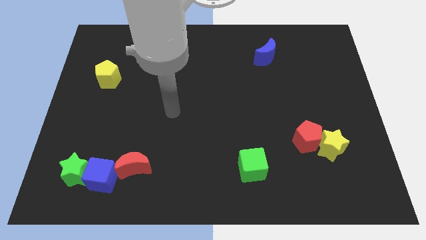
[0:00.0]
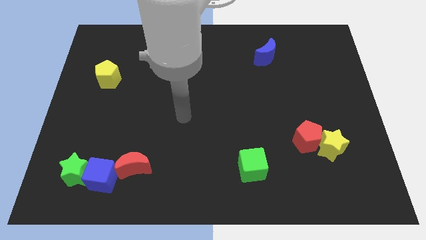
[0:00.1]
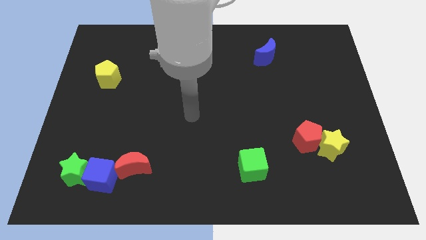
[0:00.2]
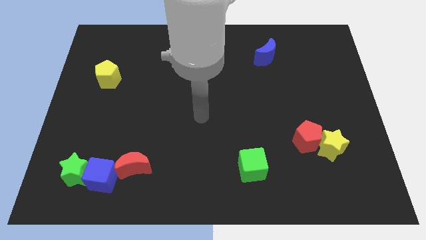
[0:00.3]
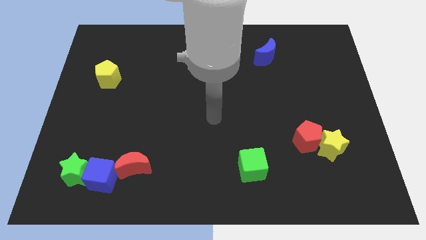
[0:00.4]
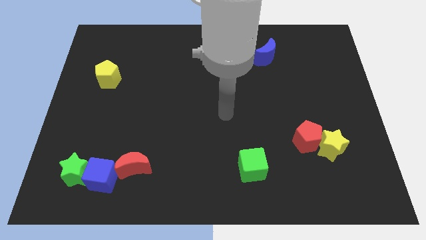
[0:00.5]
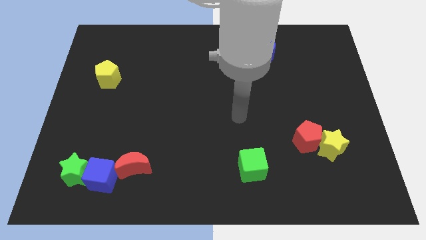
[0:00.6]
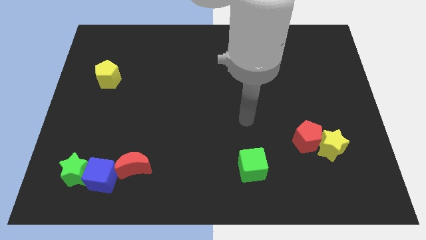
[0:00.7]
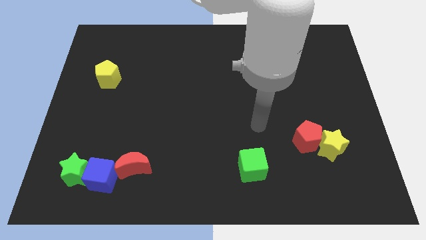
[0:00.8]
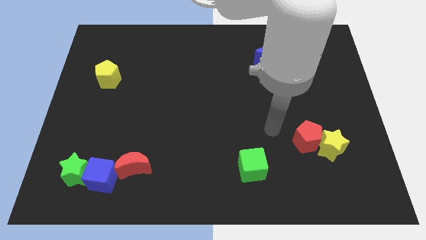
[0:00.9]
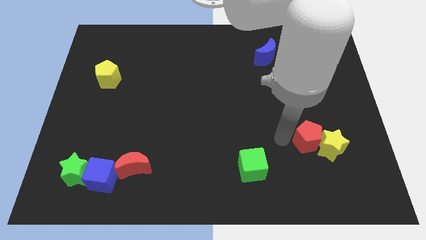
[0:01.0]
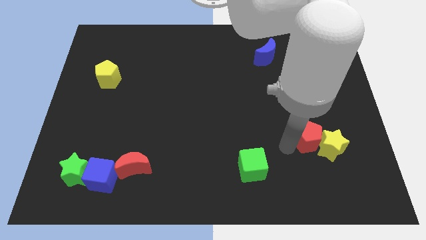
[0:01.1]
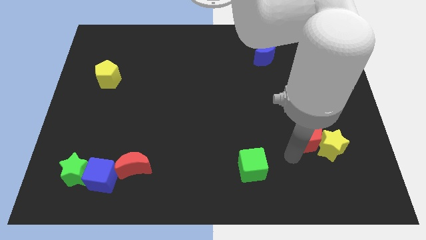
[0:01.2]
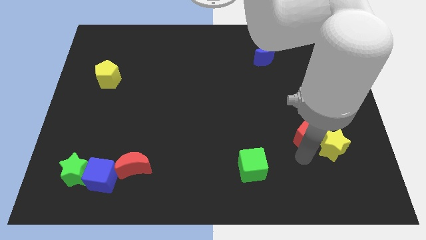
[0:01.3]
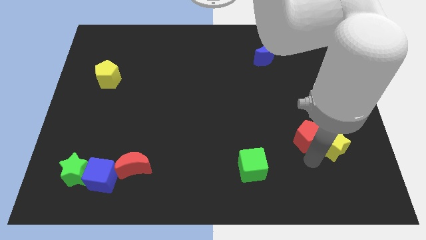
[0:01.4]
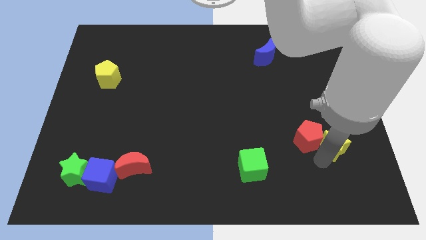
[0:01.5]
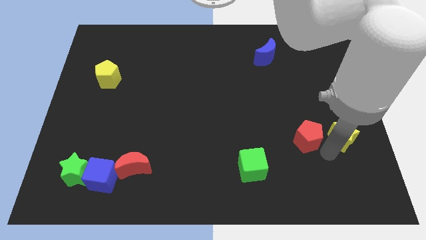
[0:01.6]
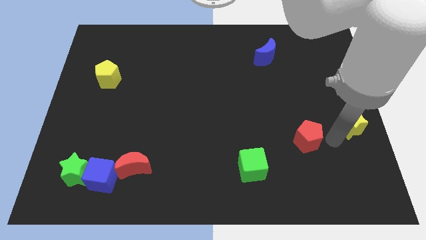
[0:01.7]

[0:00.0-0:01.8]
separate the red pentagon from the yellow star

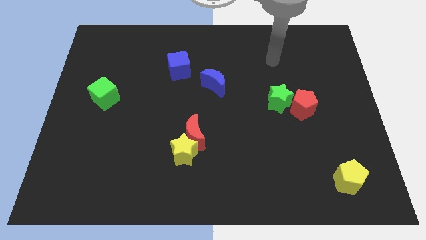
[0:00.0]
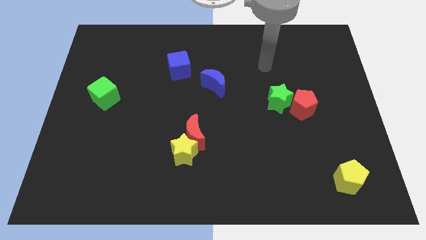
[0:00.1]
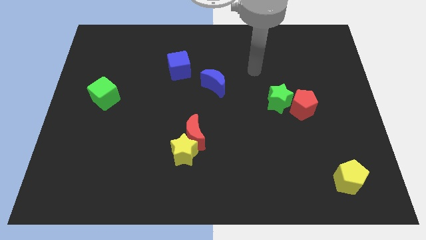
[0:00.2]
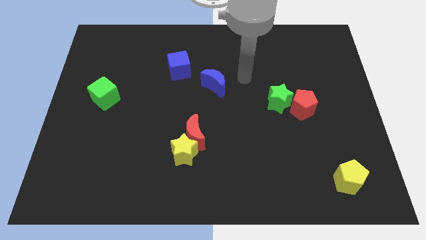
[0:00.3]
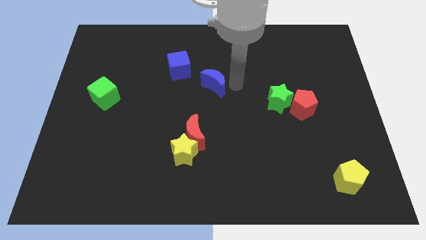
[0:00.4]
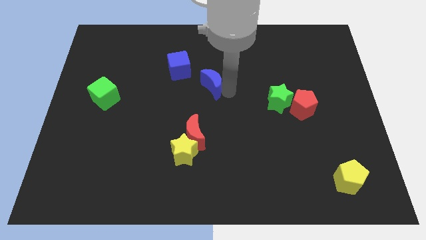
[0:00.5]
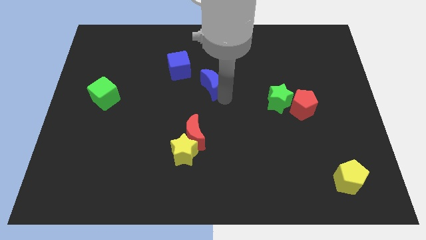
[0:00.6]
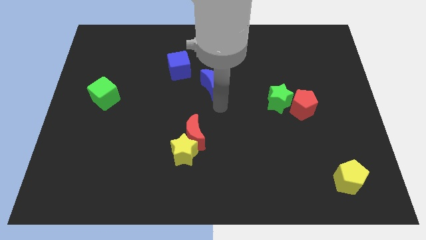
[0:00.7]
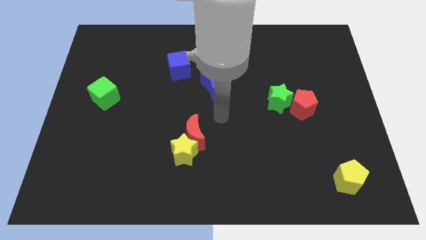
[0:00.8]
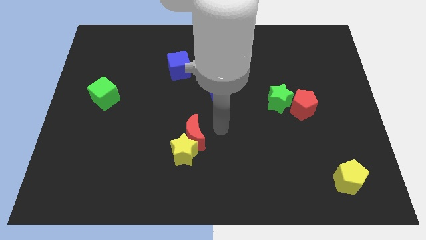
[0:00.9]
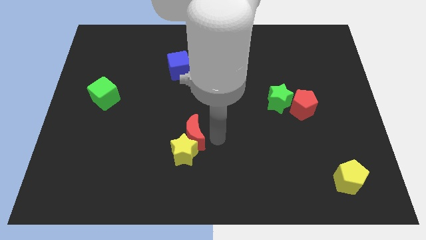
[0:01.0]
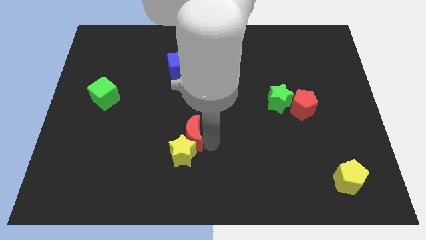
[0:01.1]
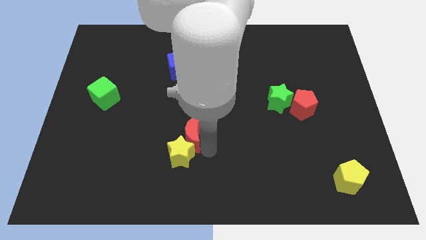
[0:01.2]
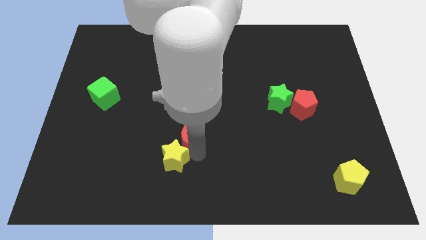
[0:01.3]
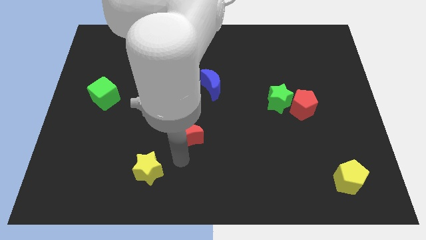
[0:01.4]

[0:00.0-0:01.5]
move the red moon away from the yellow star

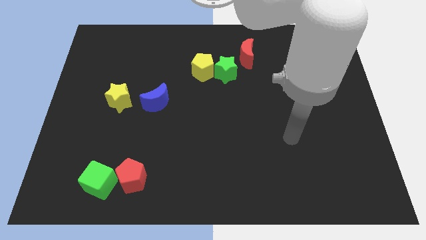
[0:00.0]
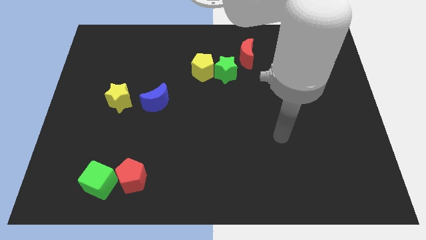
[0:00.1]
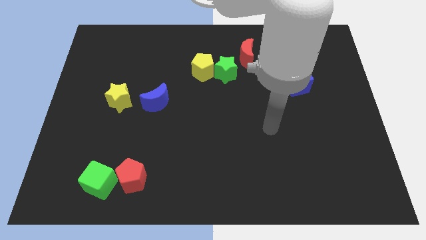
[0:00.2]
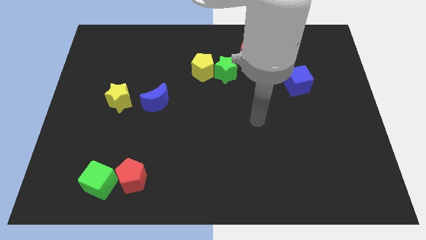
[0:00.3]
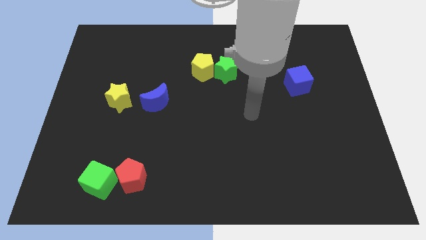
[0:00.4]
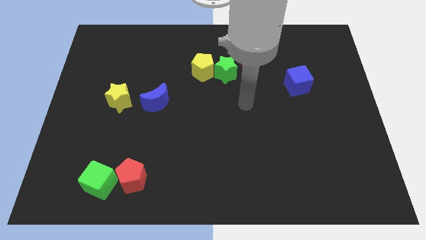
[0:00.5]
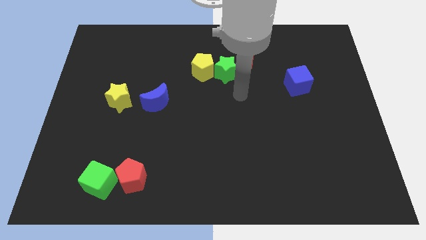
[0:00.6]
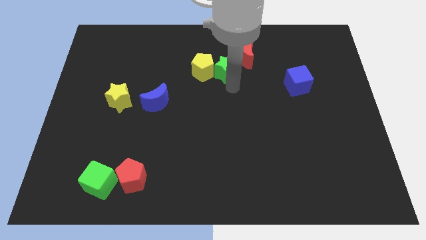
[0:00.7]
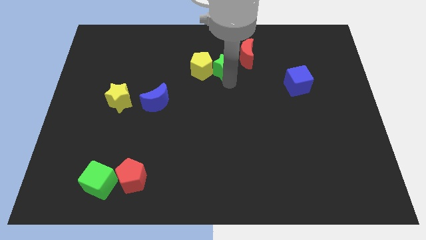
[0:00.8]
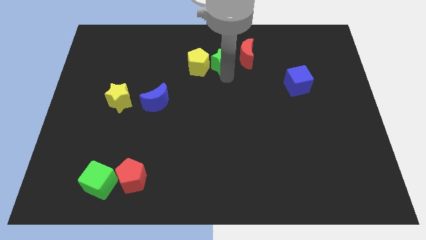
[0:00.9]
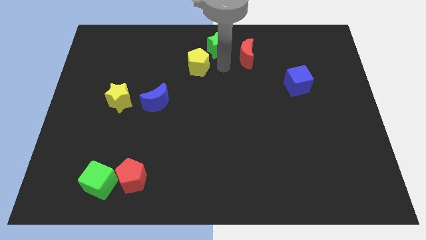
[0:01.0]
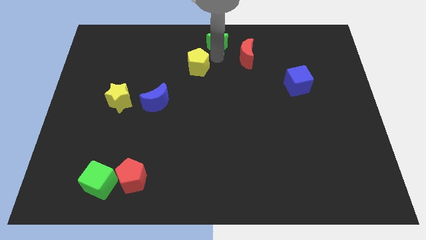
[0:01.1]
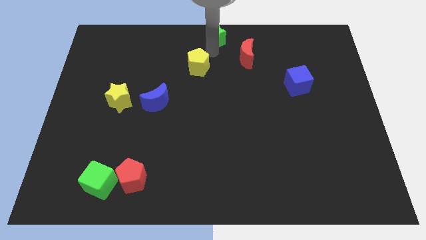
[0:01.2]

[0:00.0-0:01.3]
move the yellow pentagon away from the green star

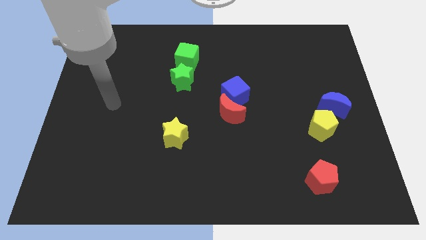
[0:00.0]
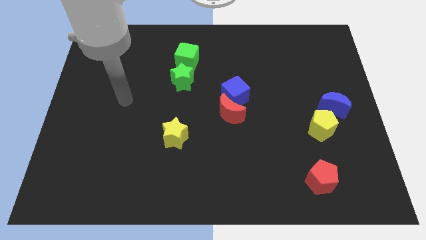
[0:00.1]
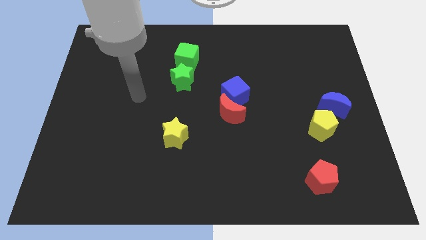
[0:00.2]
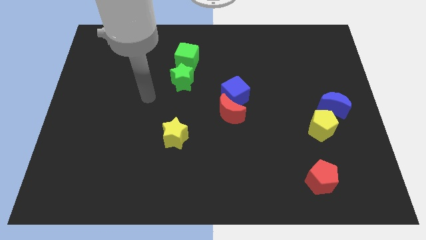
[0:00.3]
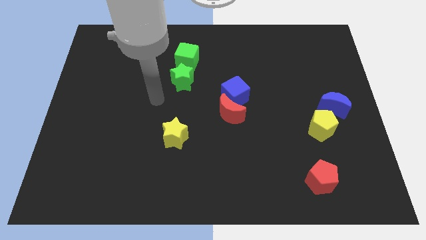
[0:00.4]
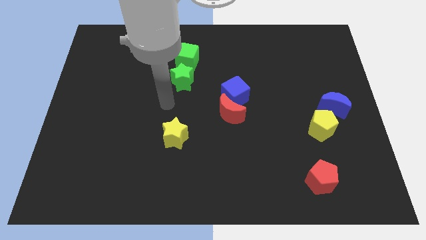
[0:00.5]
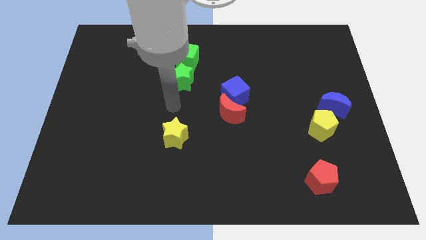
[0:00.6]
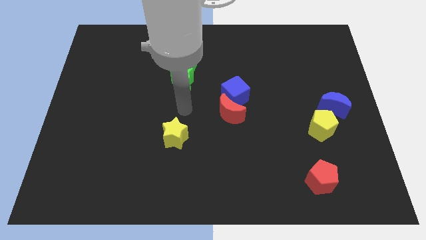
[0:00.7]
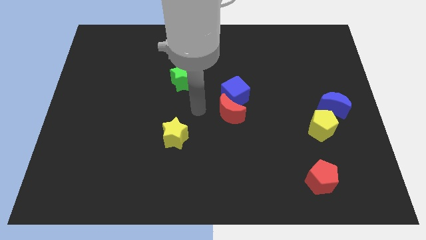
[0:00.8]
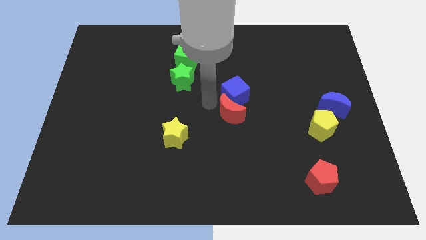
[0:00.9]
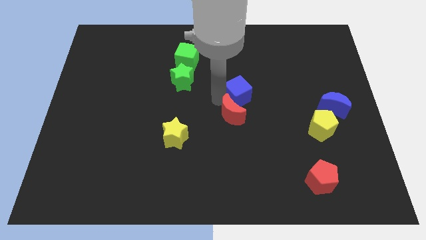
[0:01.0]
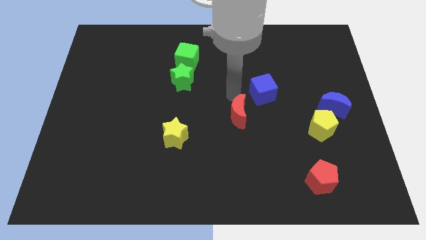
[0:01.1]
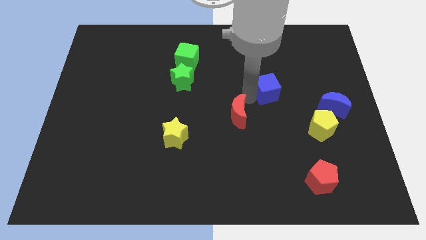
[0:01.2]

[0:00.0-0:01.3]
separate the red moon from the blue cube

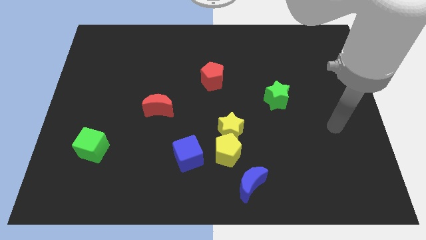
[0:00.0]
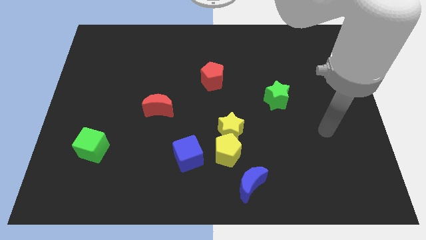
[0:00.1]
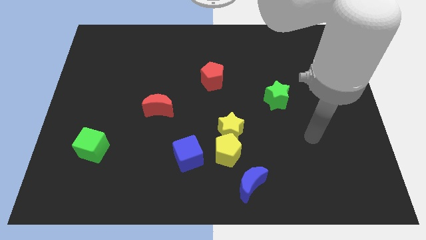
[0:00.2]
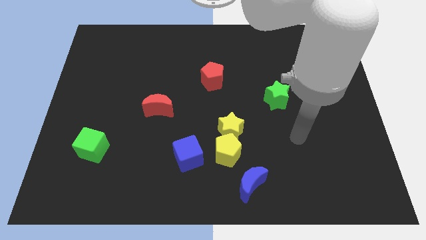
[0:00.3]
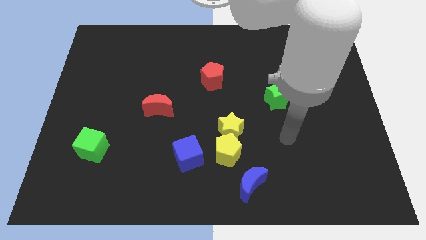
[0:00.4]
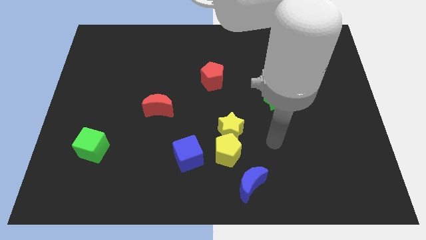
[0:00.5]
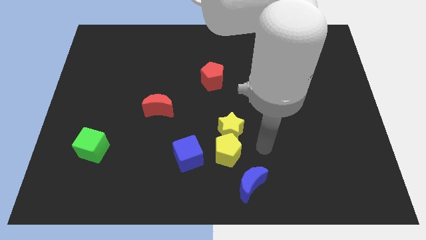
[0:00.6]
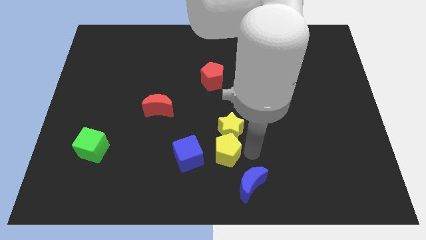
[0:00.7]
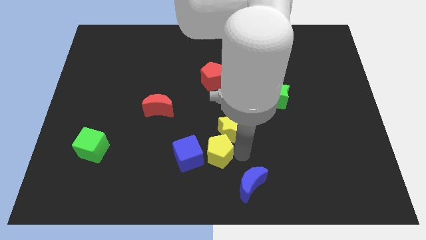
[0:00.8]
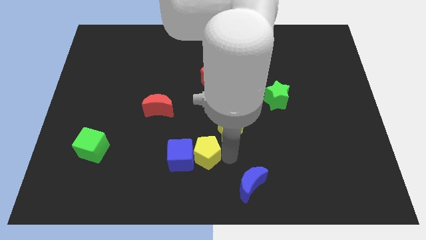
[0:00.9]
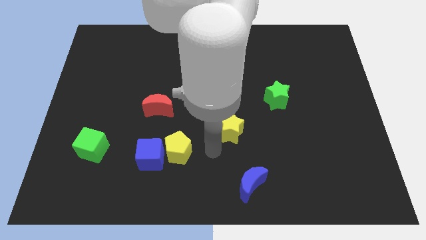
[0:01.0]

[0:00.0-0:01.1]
separate the yellow star from the yellow pentagon

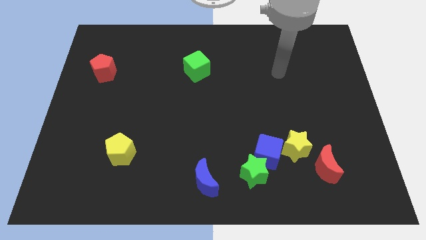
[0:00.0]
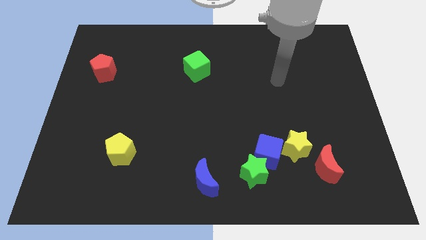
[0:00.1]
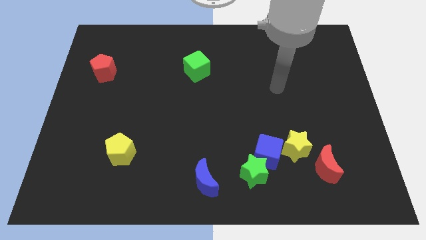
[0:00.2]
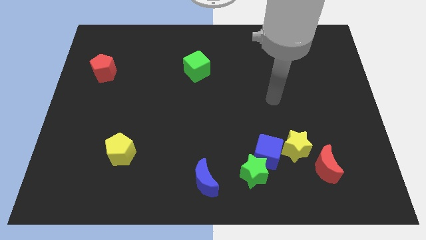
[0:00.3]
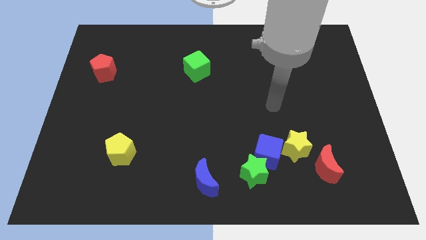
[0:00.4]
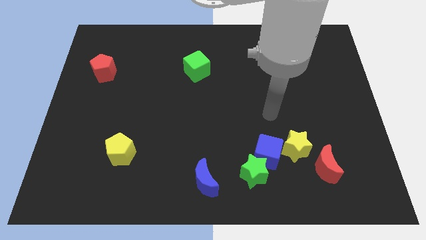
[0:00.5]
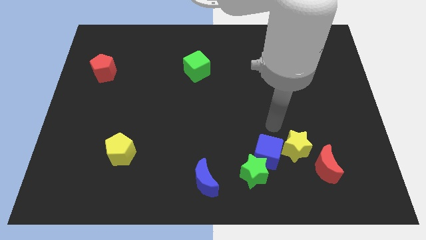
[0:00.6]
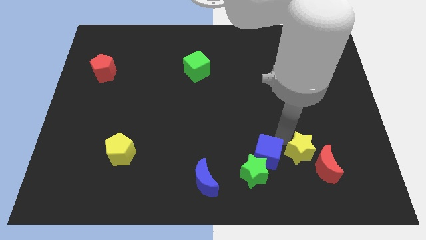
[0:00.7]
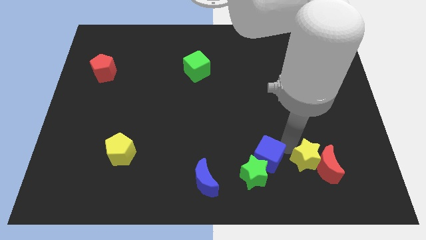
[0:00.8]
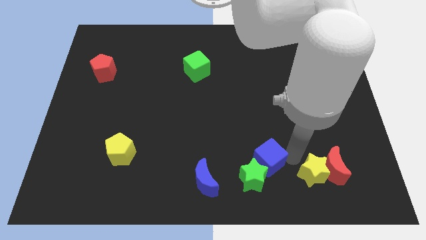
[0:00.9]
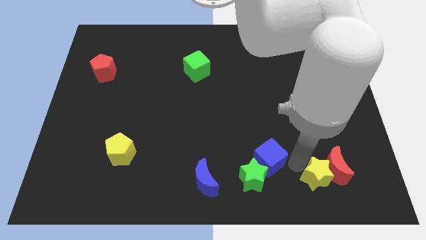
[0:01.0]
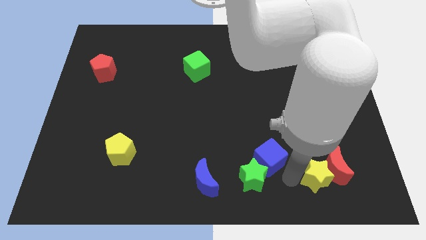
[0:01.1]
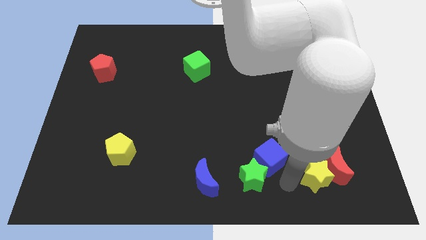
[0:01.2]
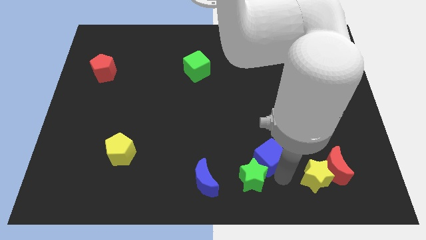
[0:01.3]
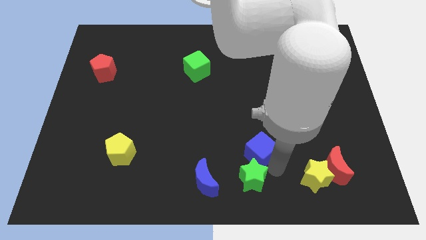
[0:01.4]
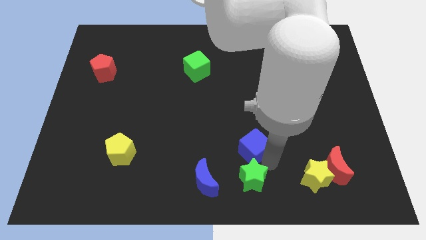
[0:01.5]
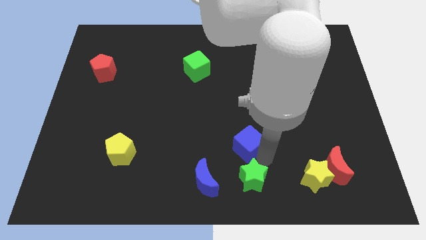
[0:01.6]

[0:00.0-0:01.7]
pull the blue cube apart from the green star and yellow star

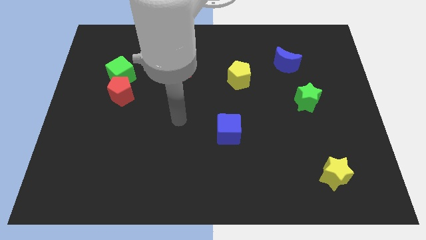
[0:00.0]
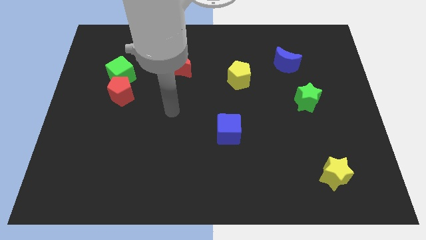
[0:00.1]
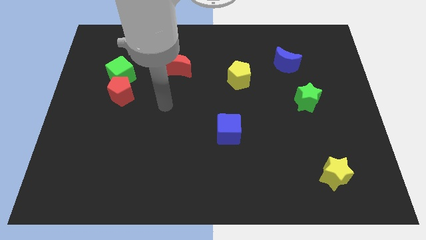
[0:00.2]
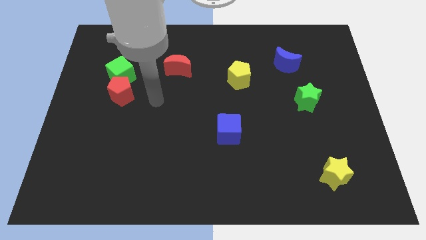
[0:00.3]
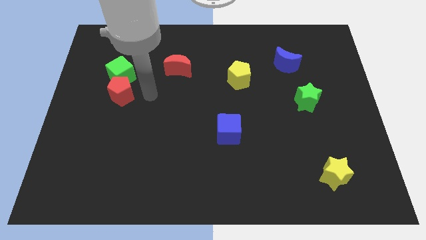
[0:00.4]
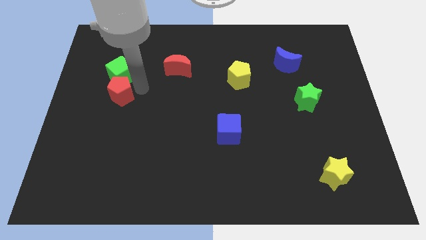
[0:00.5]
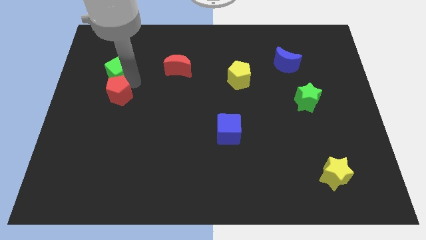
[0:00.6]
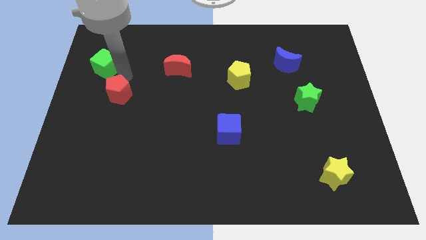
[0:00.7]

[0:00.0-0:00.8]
pull the red pentagon apart from the green cube

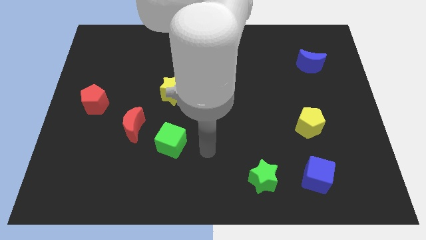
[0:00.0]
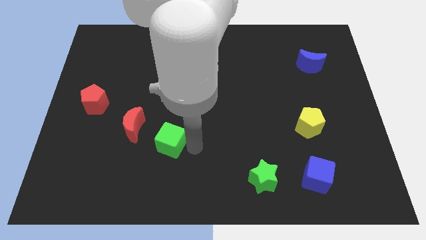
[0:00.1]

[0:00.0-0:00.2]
move the red moon away from the green cube
